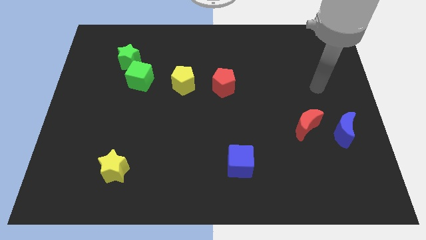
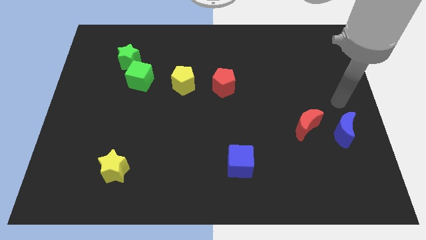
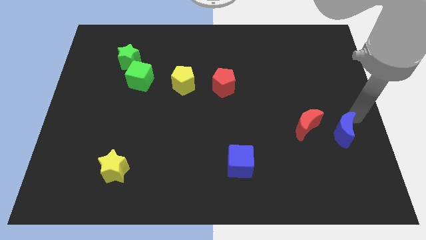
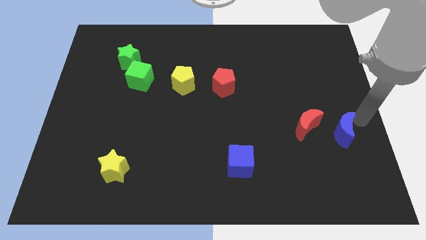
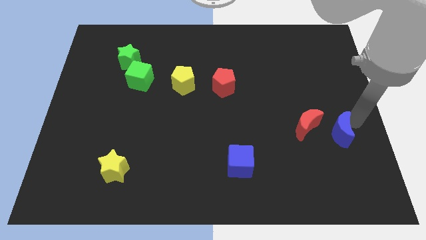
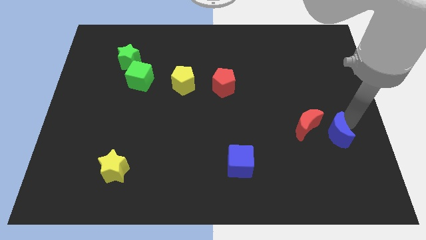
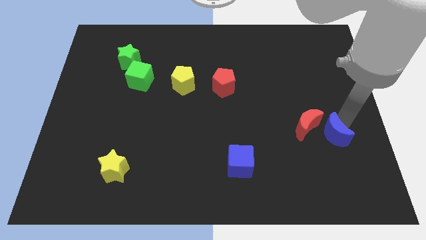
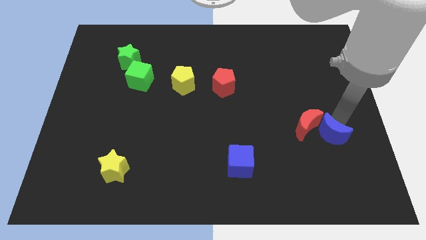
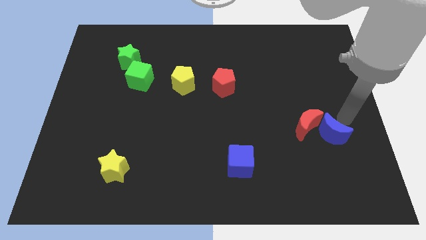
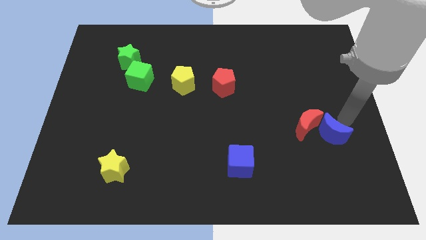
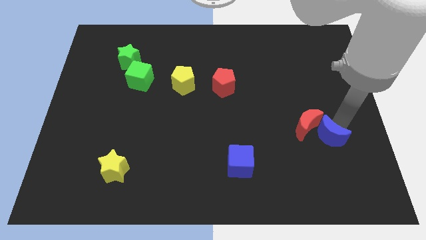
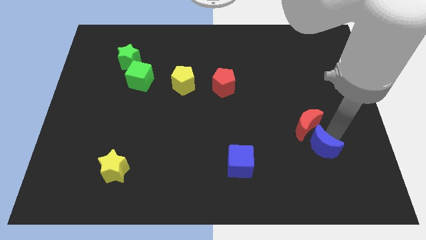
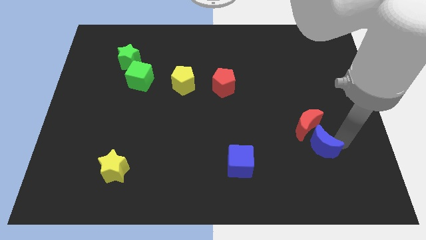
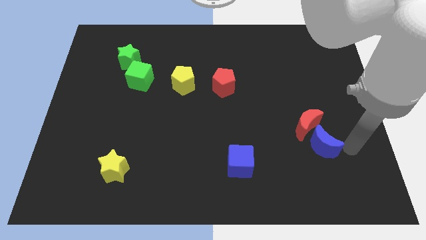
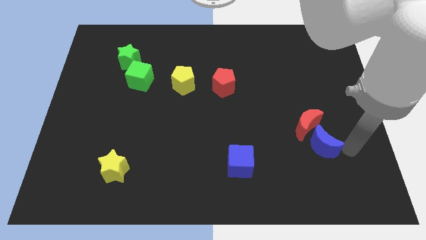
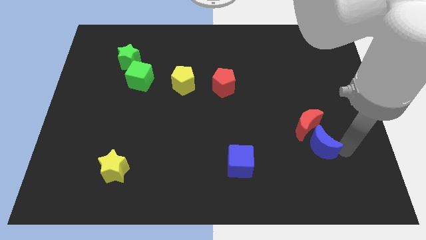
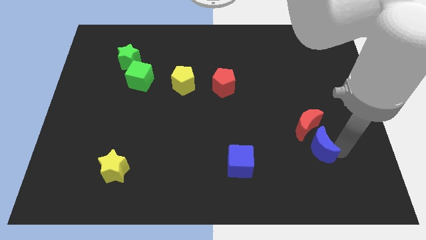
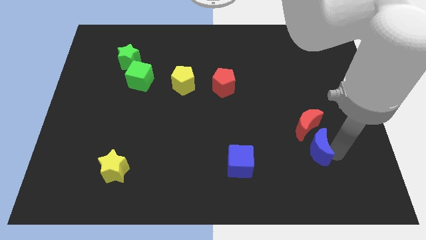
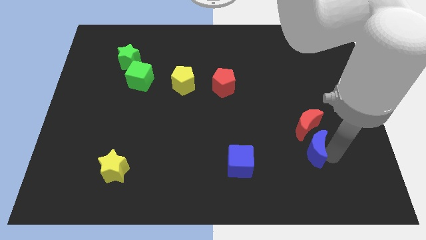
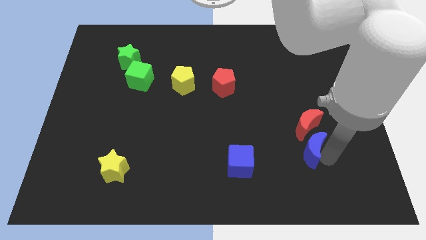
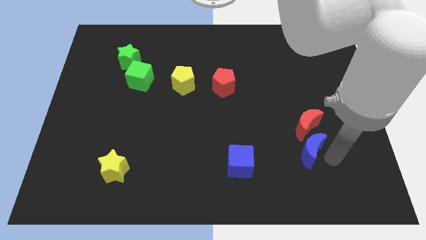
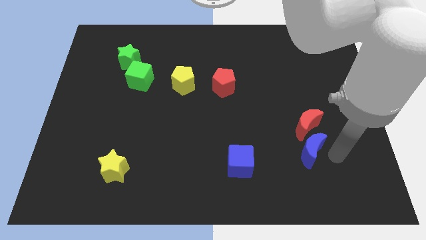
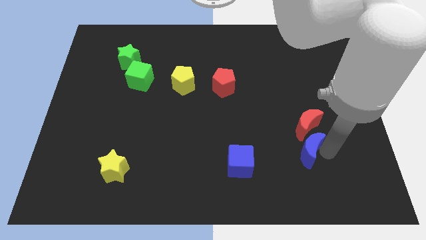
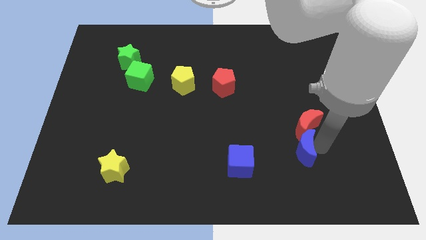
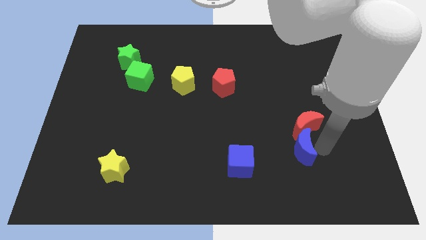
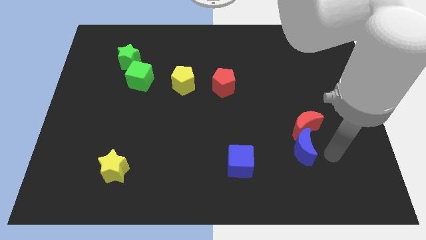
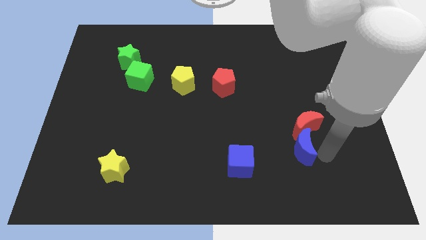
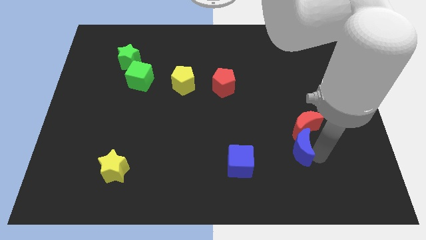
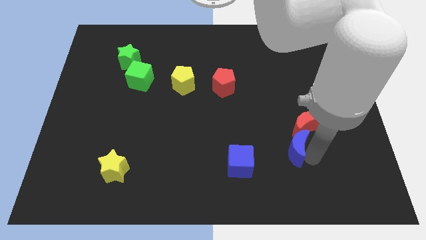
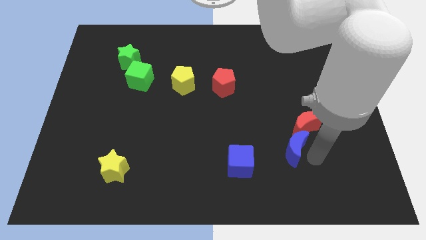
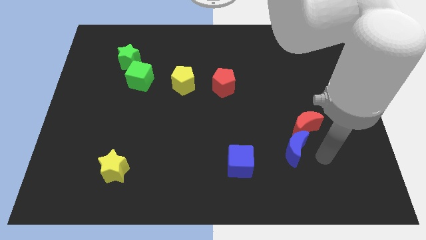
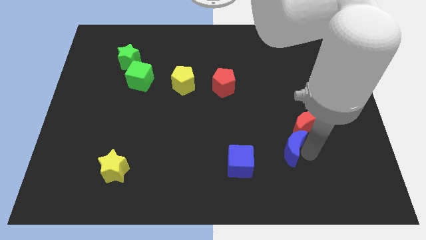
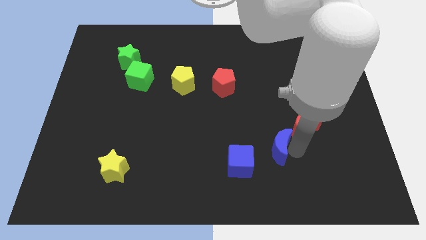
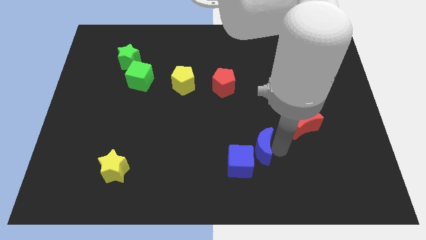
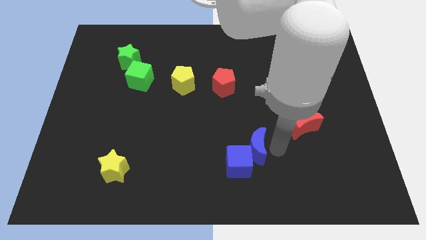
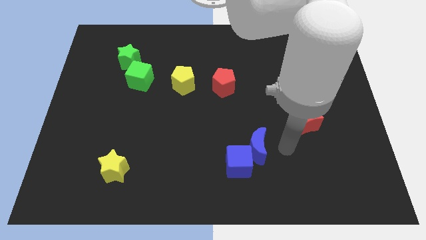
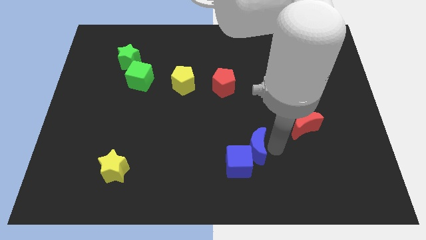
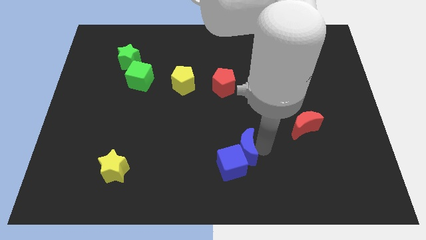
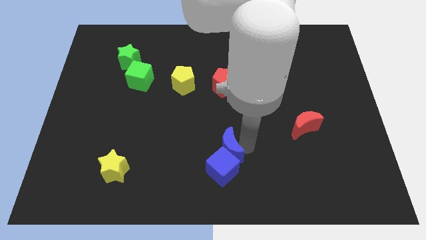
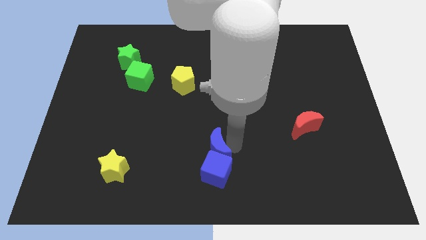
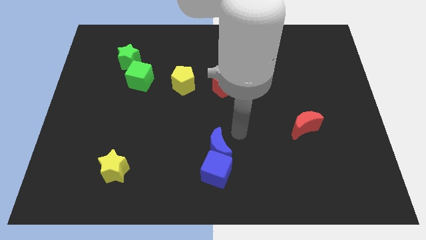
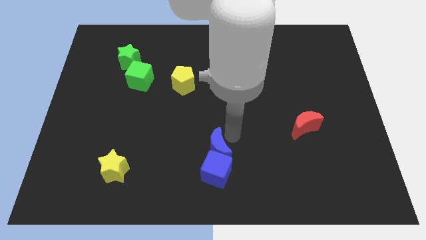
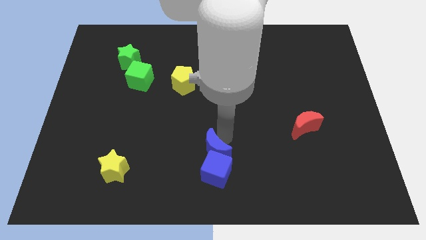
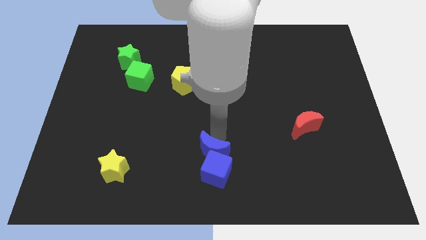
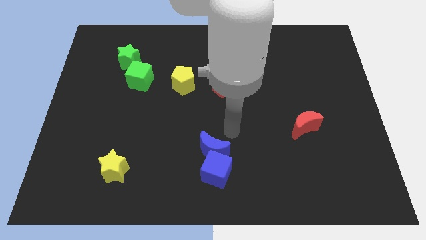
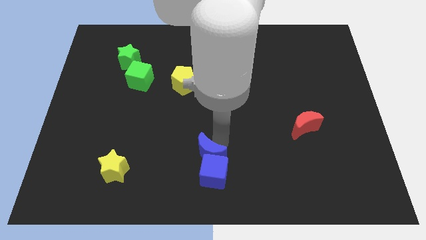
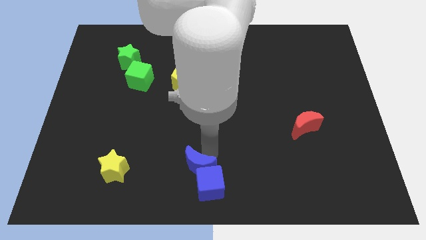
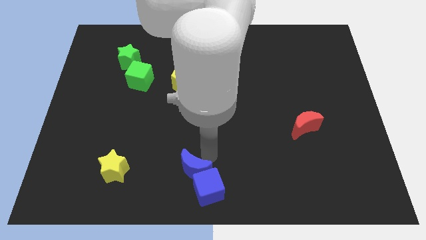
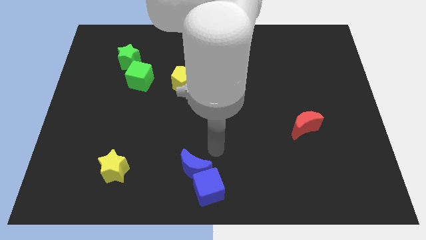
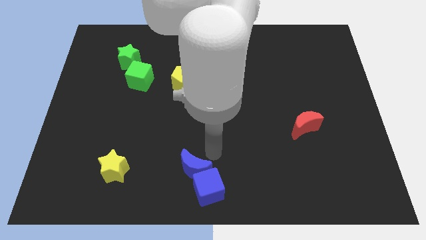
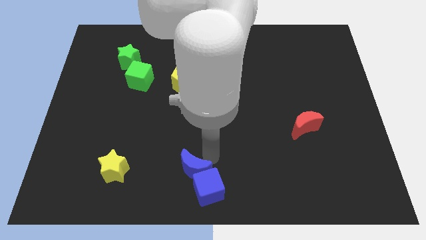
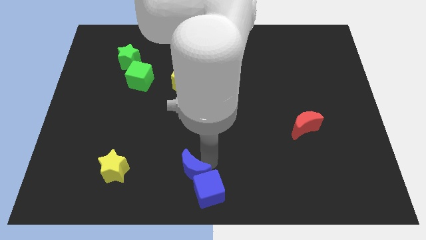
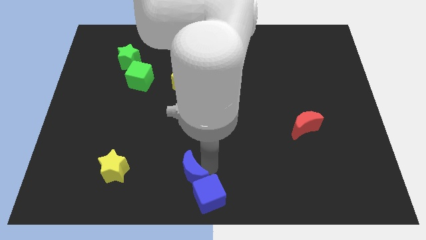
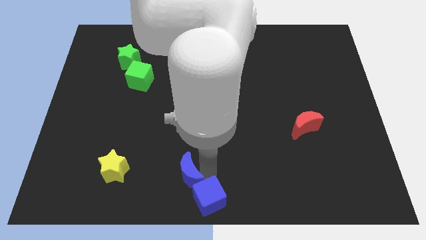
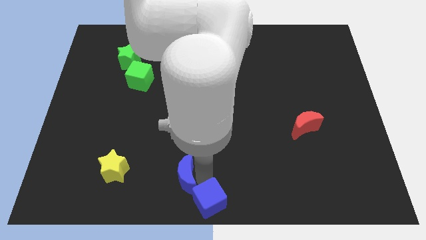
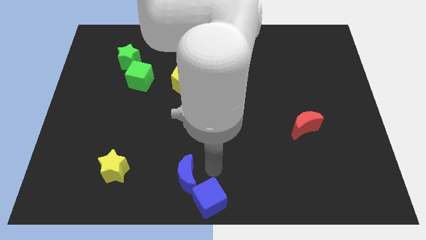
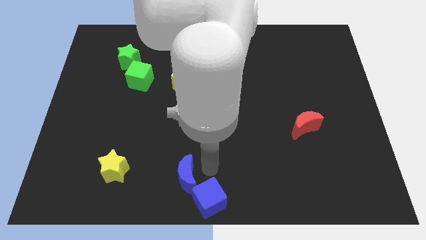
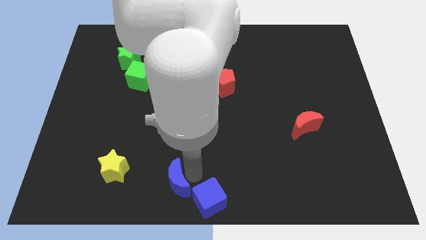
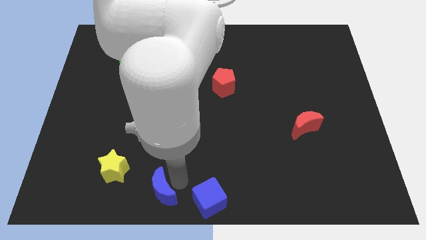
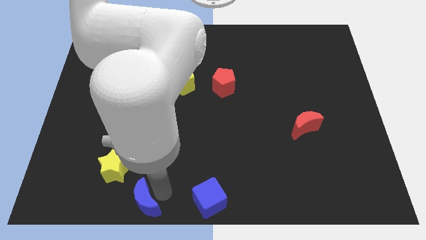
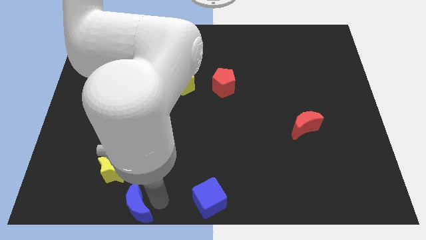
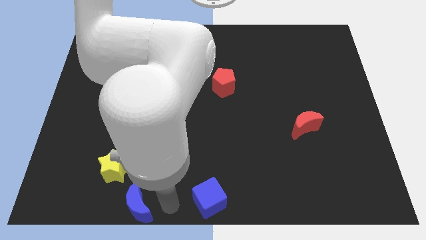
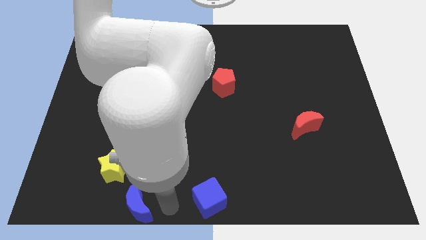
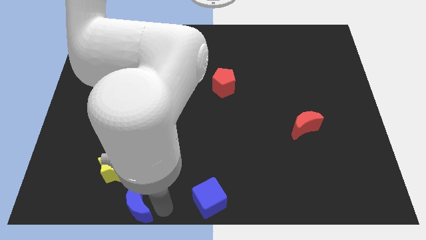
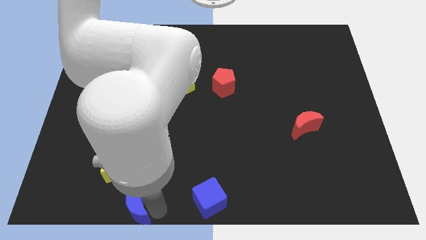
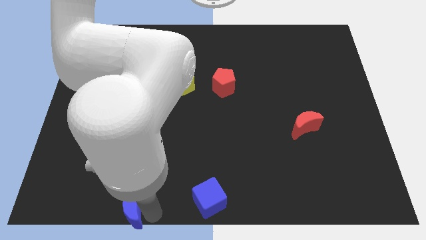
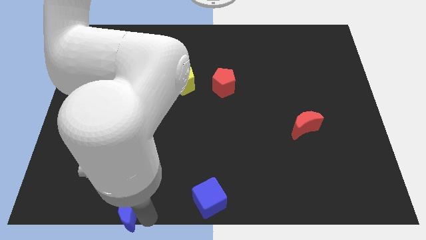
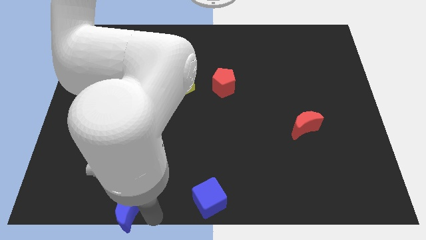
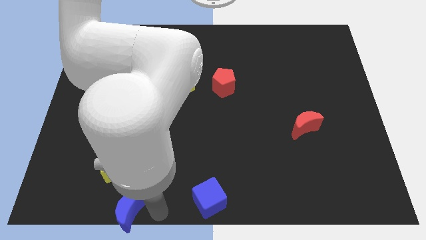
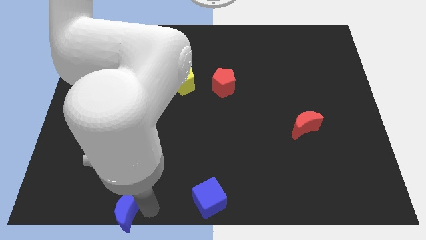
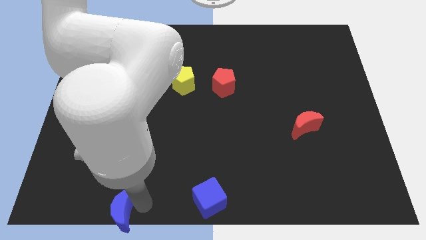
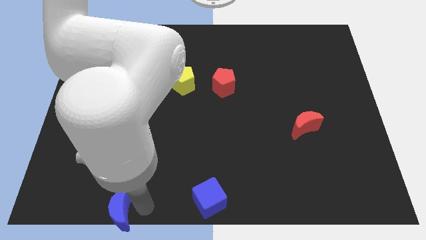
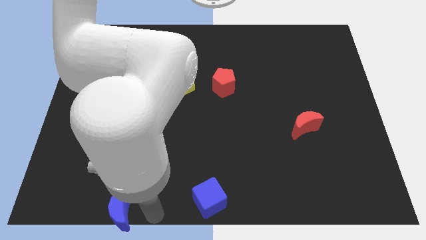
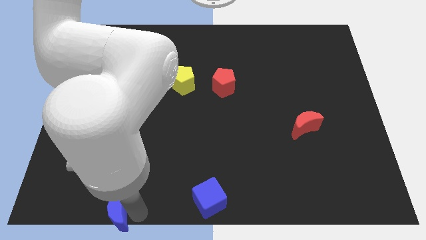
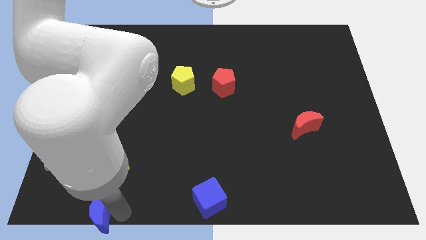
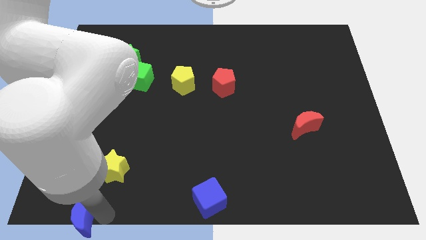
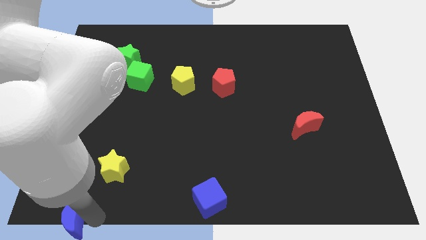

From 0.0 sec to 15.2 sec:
move the blue moon to the bottom left
